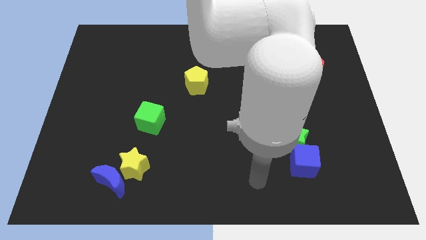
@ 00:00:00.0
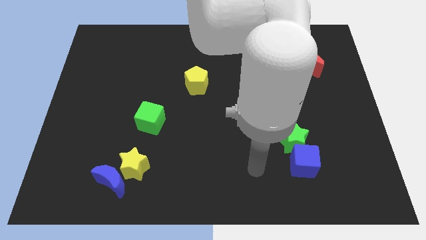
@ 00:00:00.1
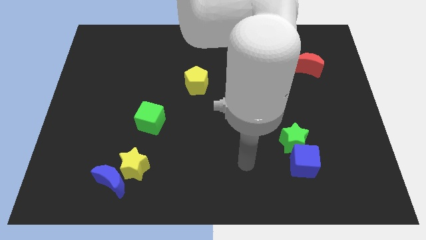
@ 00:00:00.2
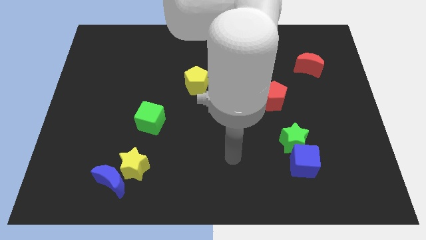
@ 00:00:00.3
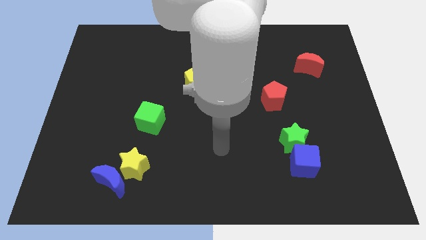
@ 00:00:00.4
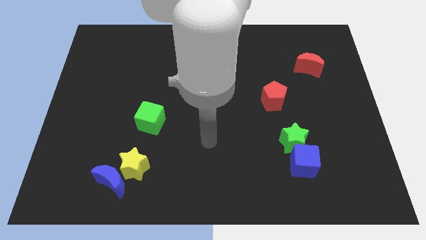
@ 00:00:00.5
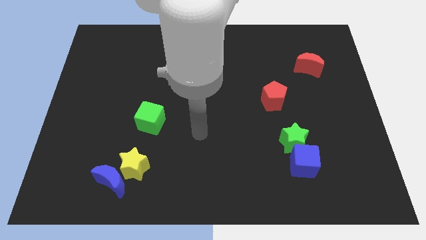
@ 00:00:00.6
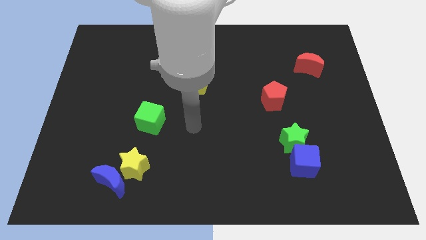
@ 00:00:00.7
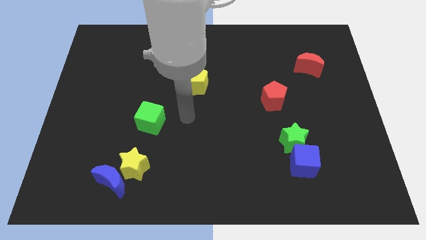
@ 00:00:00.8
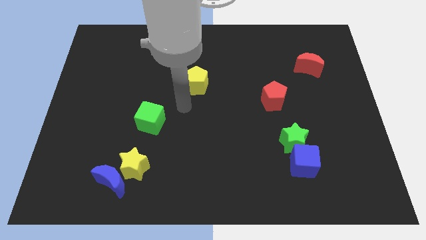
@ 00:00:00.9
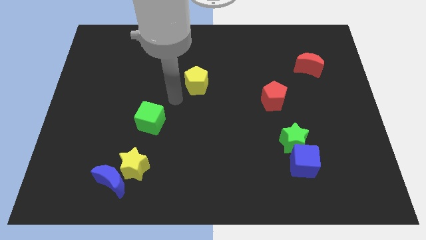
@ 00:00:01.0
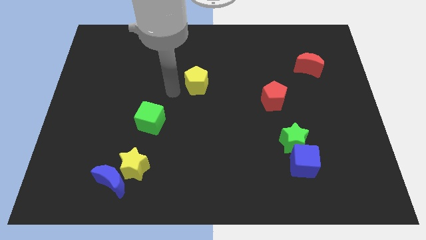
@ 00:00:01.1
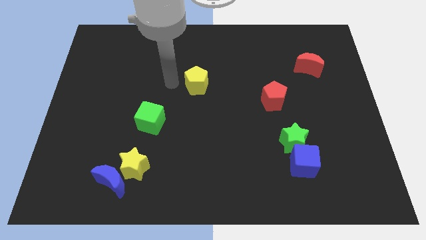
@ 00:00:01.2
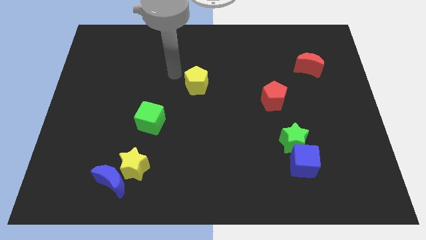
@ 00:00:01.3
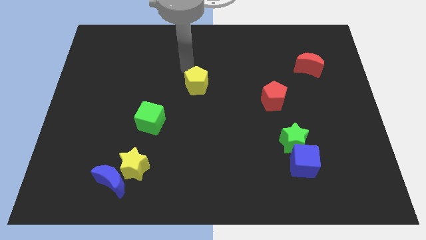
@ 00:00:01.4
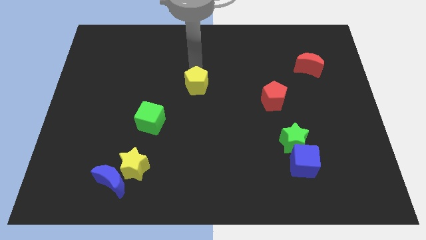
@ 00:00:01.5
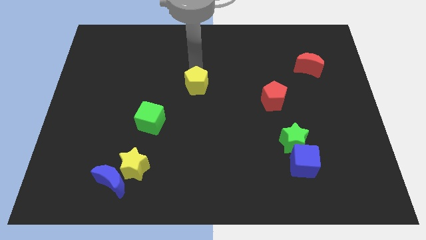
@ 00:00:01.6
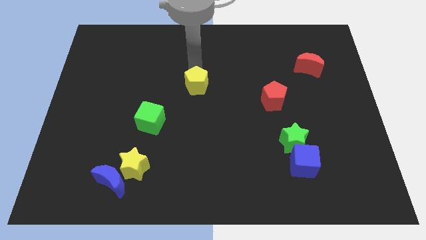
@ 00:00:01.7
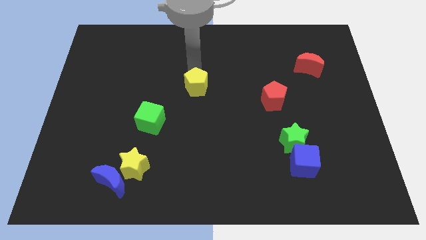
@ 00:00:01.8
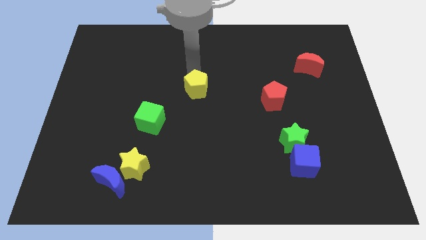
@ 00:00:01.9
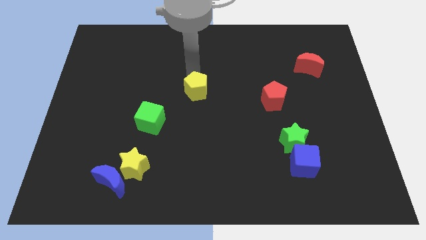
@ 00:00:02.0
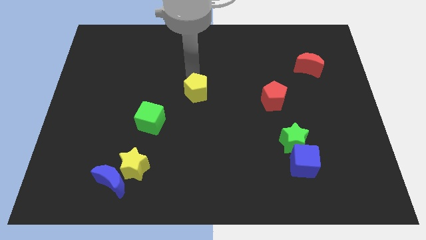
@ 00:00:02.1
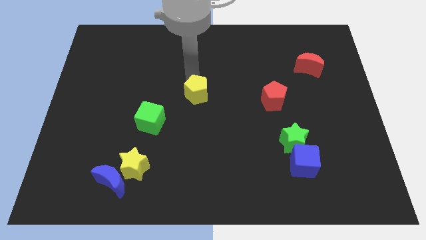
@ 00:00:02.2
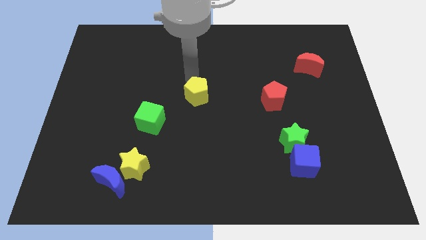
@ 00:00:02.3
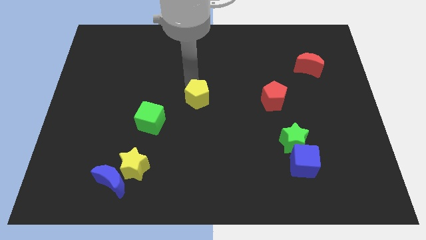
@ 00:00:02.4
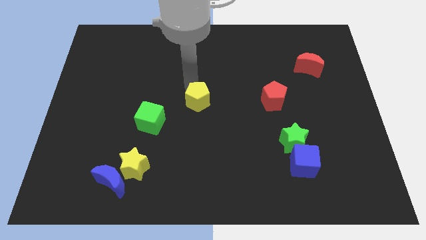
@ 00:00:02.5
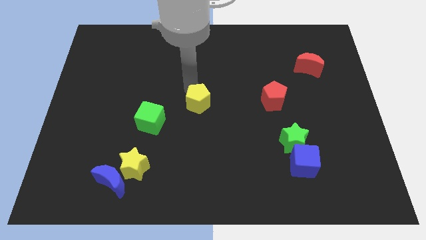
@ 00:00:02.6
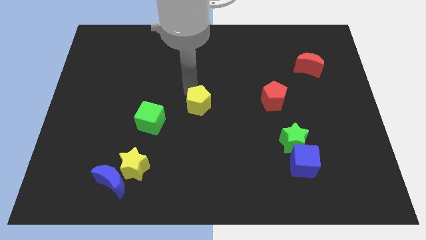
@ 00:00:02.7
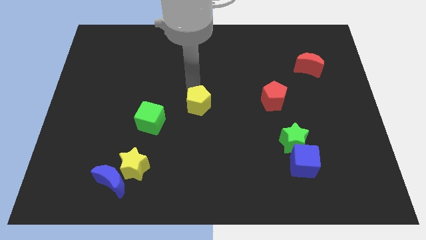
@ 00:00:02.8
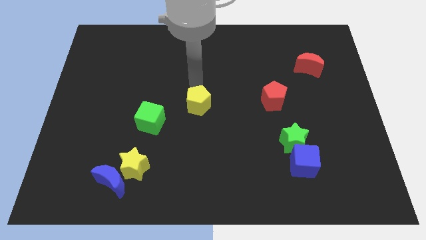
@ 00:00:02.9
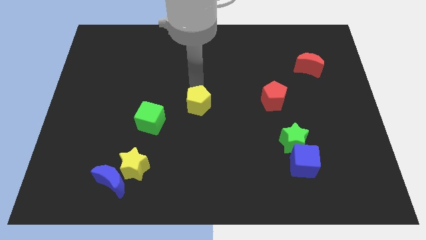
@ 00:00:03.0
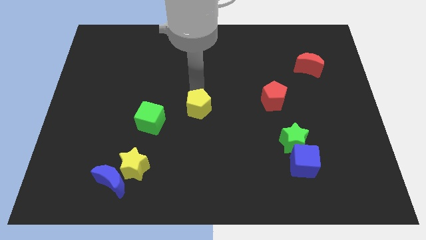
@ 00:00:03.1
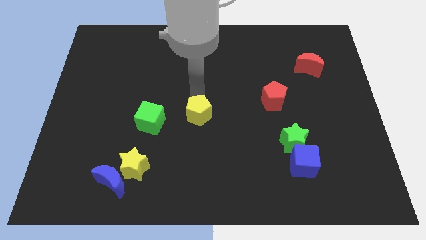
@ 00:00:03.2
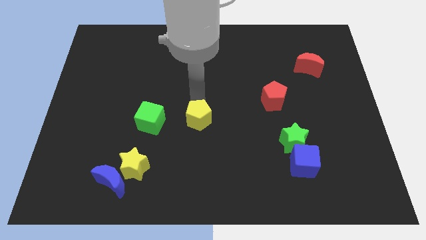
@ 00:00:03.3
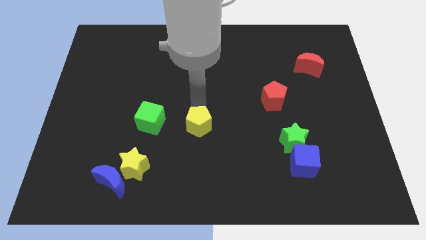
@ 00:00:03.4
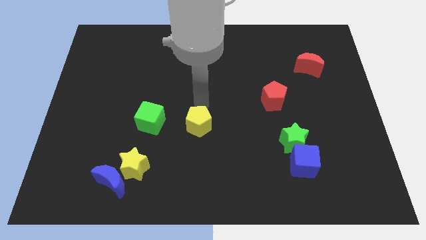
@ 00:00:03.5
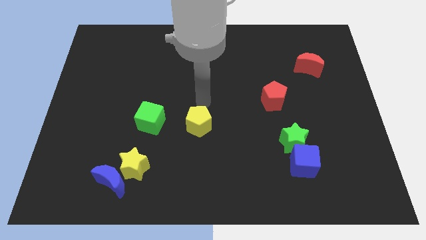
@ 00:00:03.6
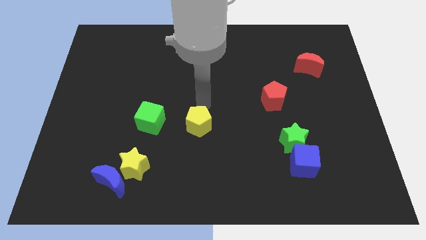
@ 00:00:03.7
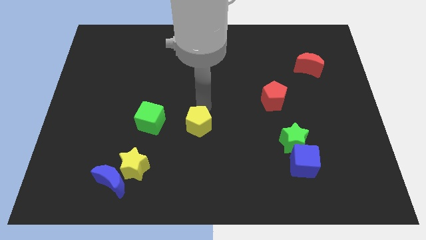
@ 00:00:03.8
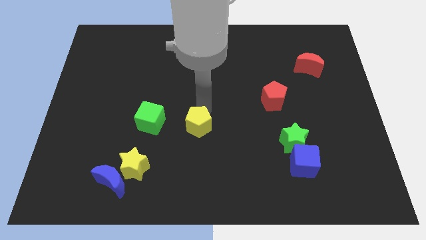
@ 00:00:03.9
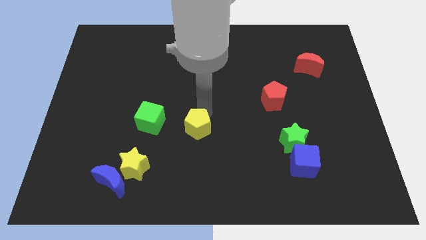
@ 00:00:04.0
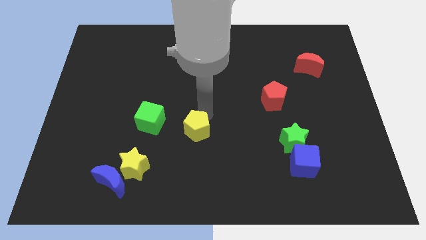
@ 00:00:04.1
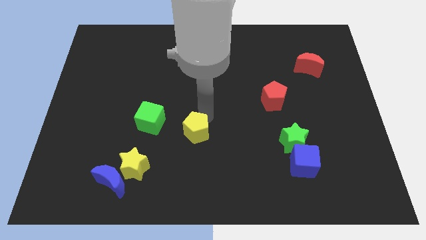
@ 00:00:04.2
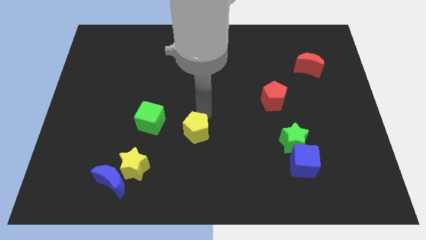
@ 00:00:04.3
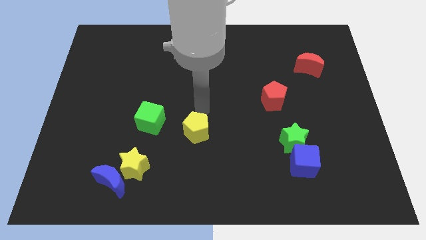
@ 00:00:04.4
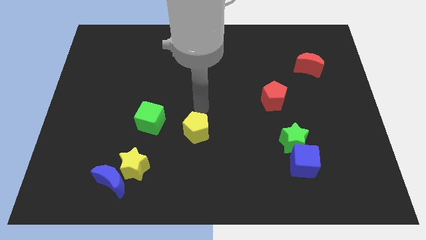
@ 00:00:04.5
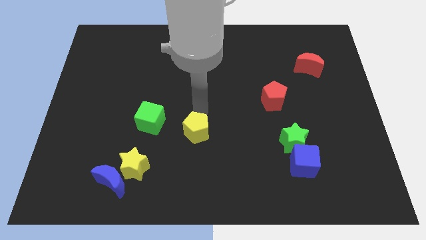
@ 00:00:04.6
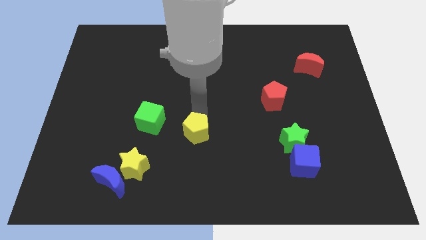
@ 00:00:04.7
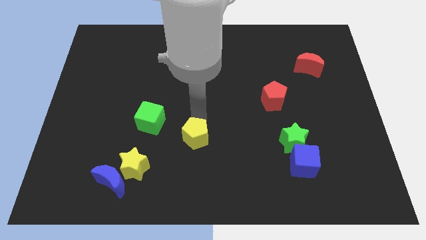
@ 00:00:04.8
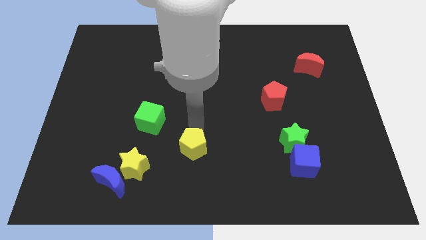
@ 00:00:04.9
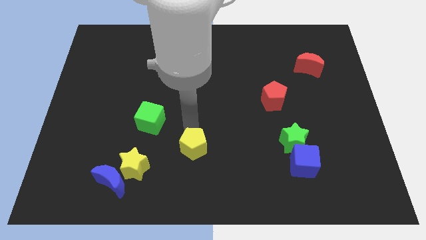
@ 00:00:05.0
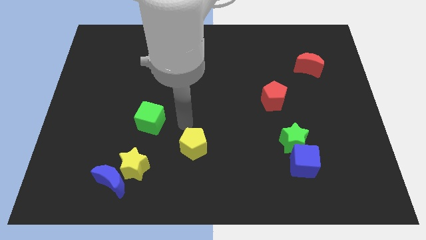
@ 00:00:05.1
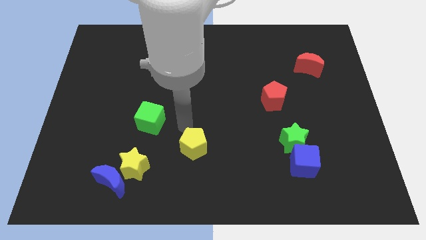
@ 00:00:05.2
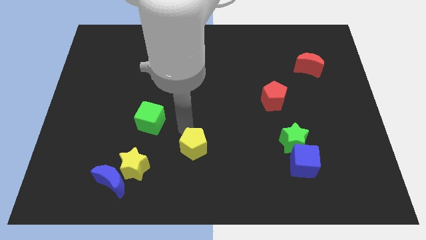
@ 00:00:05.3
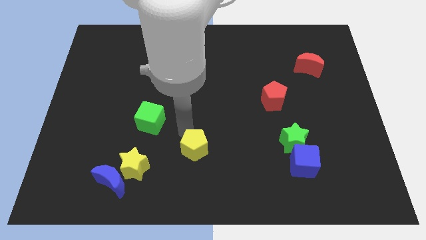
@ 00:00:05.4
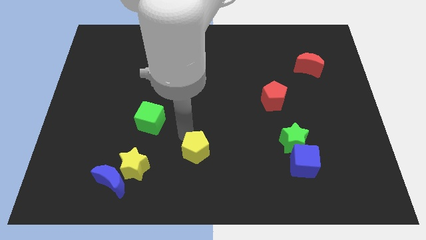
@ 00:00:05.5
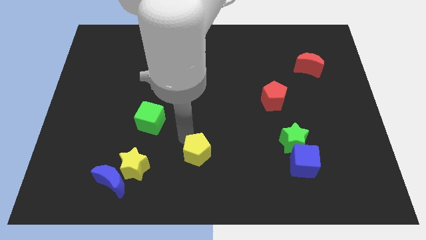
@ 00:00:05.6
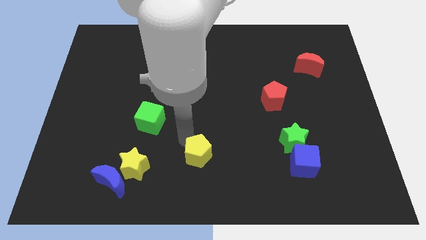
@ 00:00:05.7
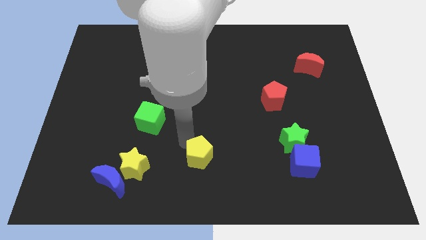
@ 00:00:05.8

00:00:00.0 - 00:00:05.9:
move the yellow pentagon to the bottom side

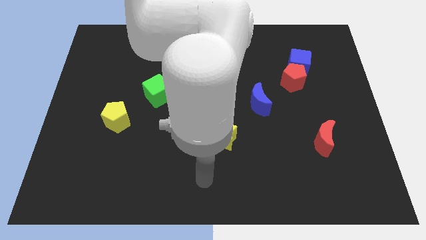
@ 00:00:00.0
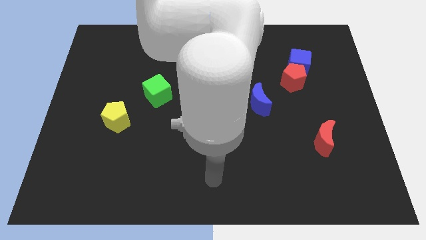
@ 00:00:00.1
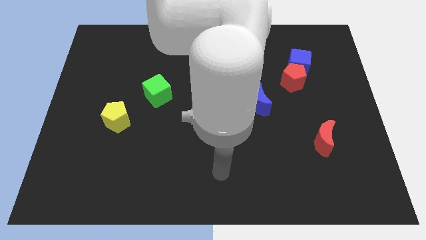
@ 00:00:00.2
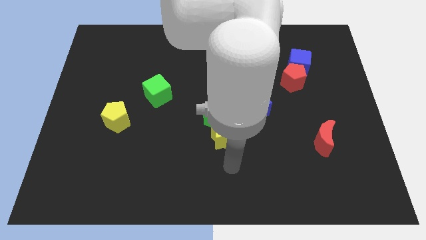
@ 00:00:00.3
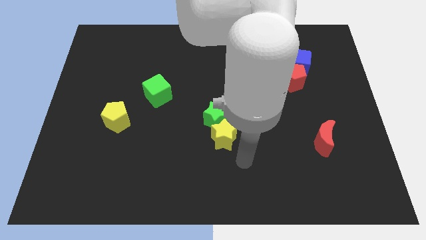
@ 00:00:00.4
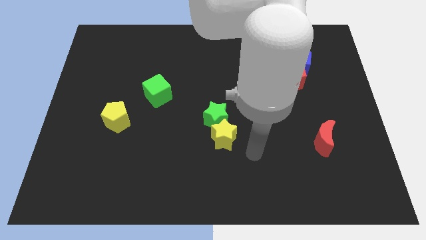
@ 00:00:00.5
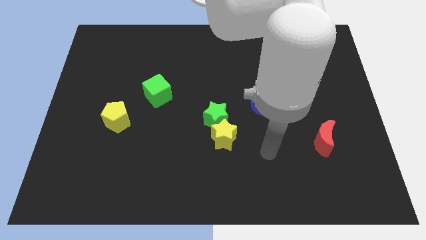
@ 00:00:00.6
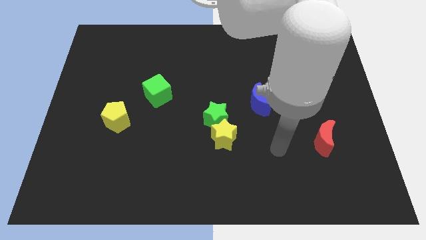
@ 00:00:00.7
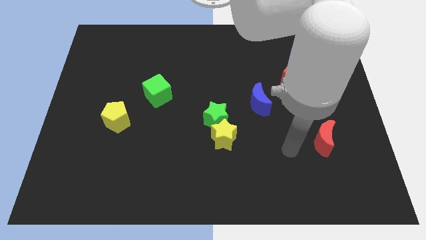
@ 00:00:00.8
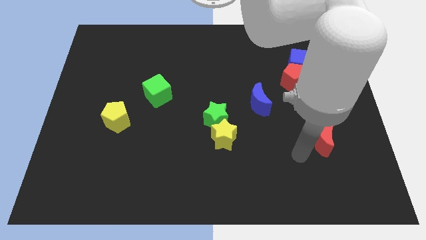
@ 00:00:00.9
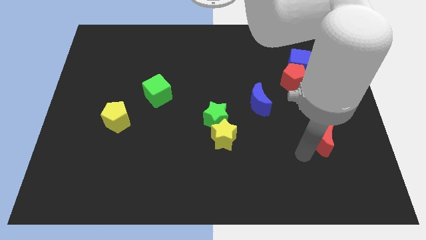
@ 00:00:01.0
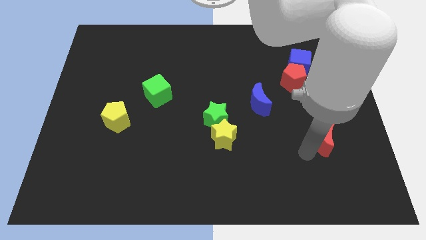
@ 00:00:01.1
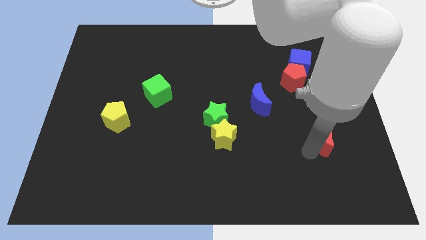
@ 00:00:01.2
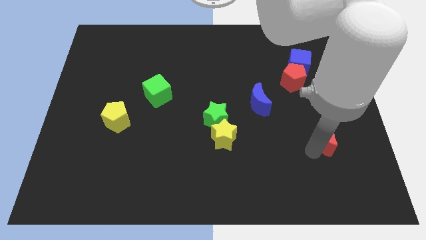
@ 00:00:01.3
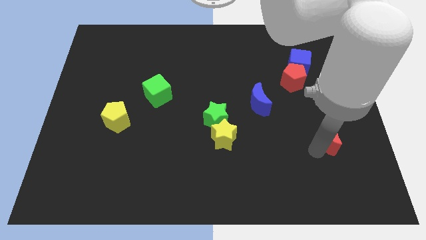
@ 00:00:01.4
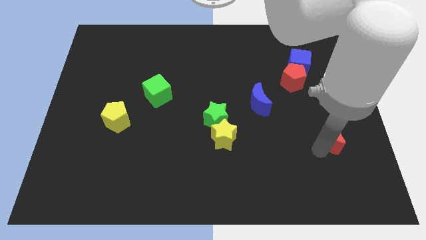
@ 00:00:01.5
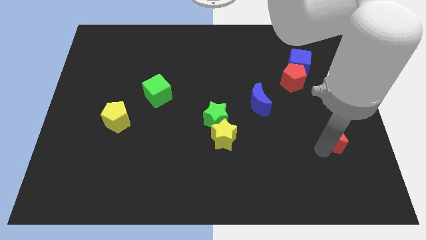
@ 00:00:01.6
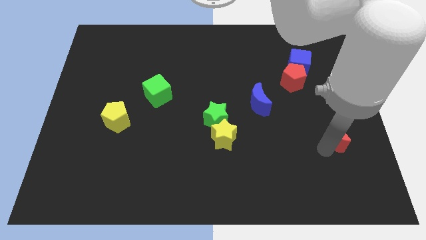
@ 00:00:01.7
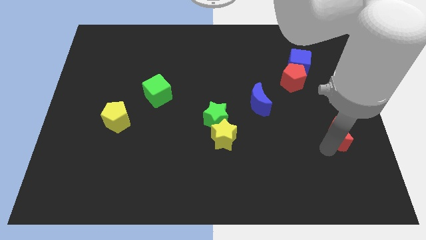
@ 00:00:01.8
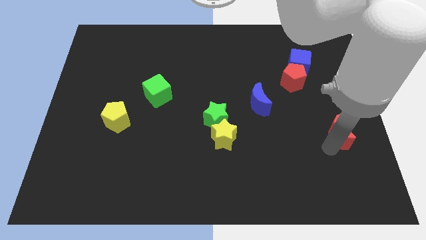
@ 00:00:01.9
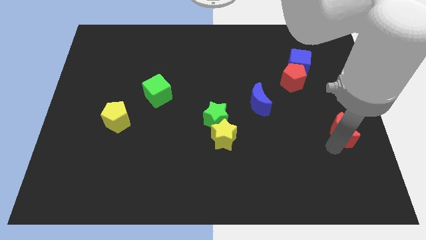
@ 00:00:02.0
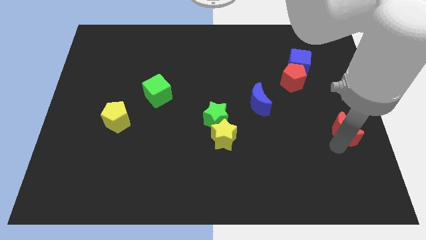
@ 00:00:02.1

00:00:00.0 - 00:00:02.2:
slide the red moon to the right side of the board
